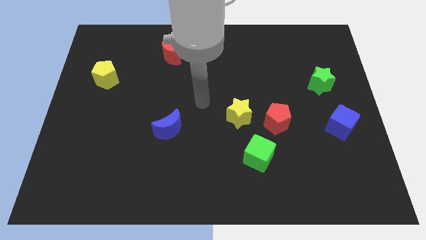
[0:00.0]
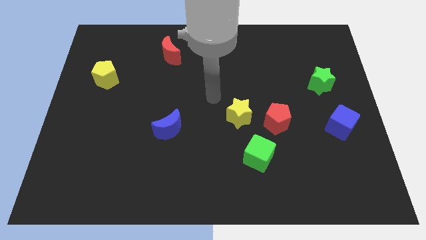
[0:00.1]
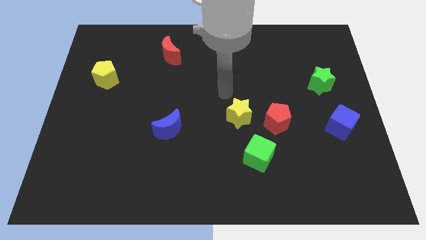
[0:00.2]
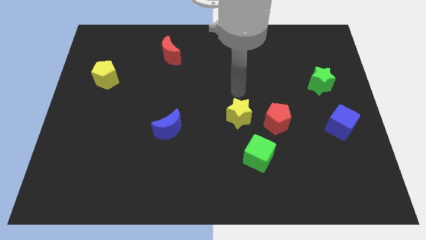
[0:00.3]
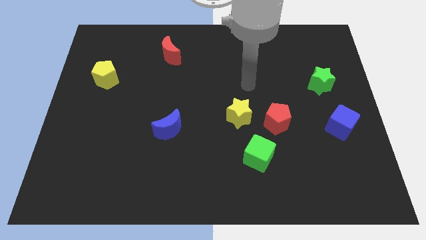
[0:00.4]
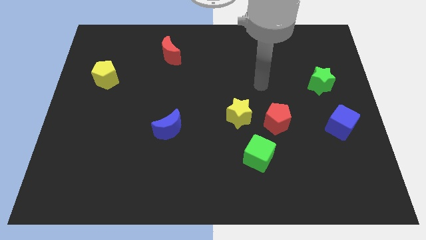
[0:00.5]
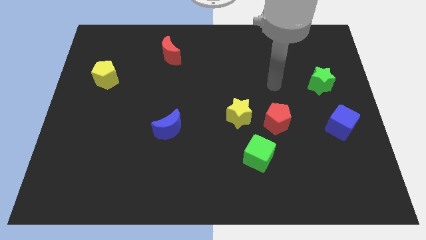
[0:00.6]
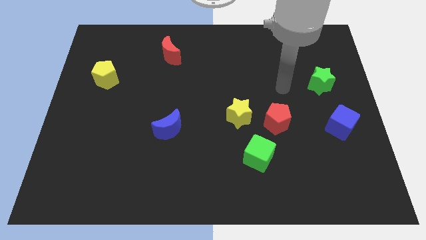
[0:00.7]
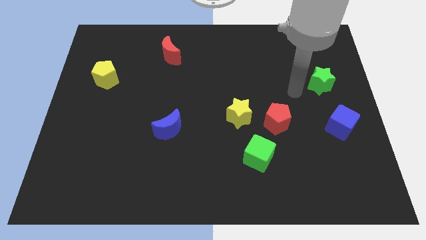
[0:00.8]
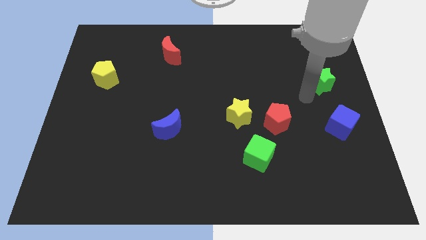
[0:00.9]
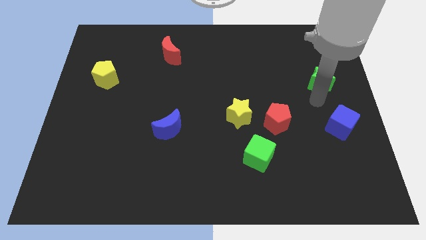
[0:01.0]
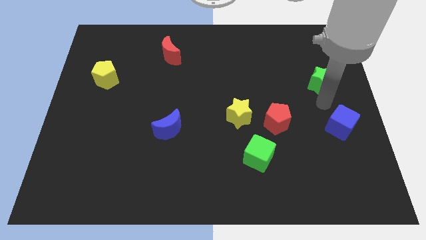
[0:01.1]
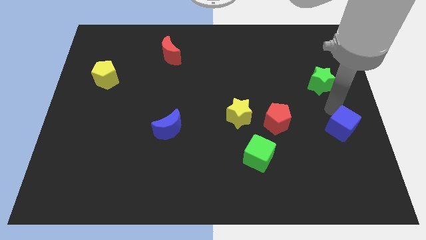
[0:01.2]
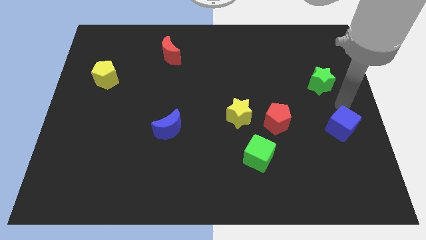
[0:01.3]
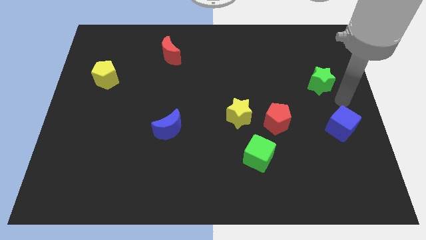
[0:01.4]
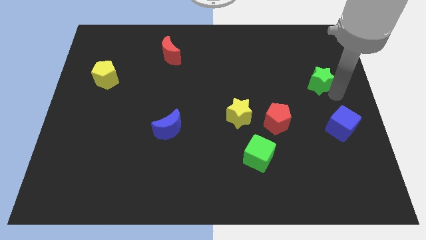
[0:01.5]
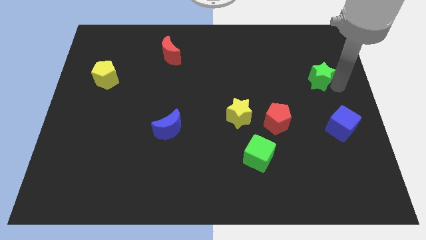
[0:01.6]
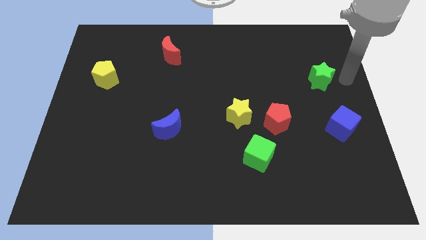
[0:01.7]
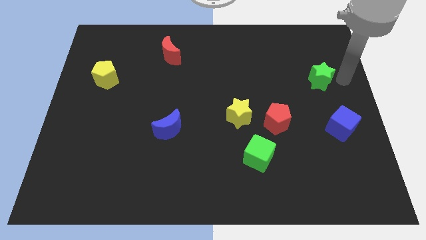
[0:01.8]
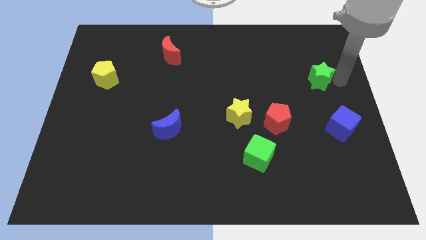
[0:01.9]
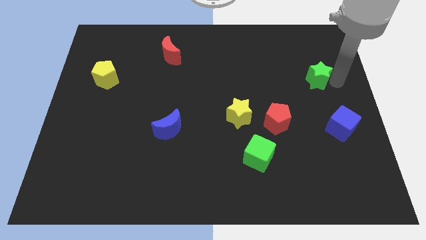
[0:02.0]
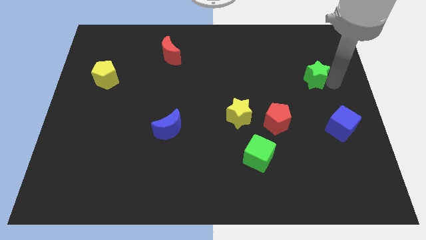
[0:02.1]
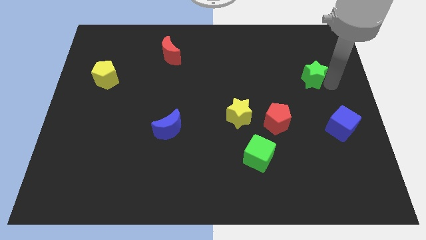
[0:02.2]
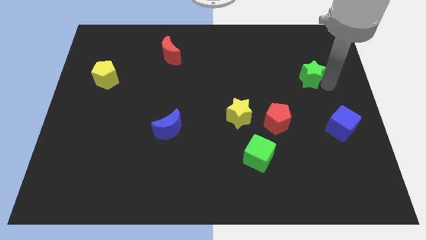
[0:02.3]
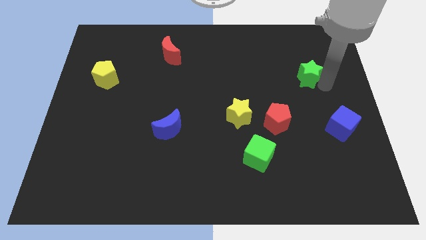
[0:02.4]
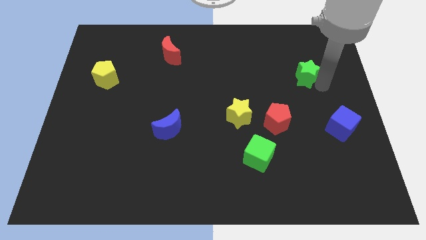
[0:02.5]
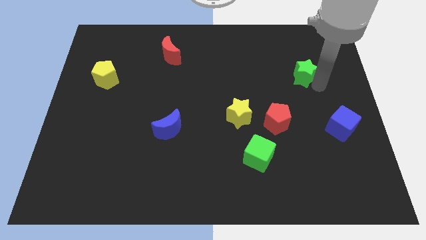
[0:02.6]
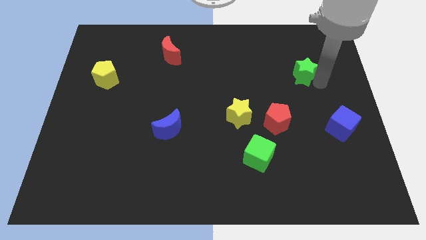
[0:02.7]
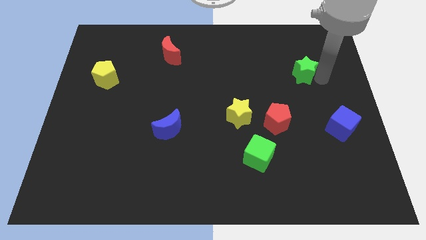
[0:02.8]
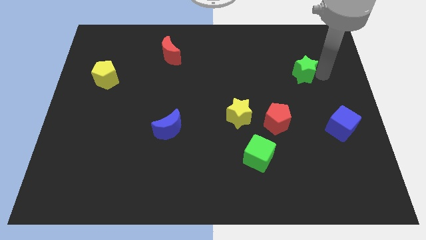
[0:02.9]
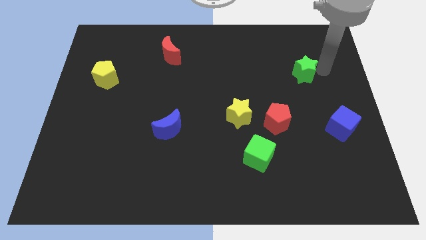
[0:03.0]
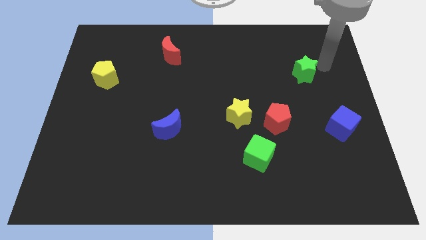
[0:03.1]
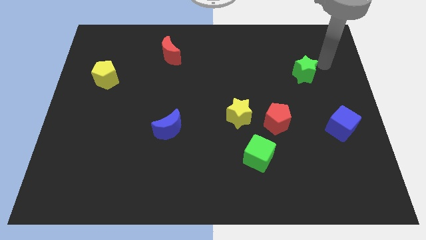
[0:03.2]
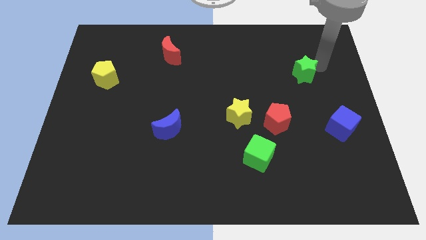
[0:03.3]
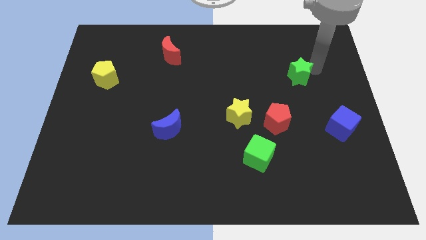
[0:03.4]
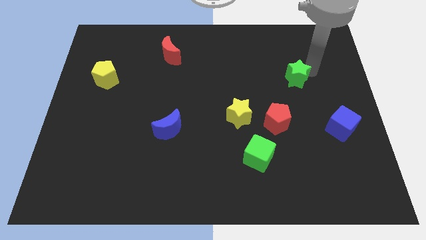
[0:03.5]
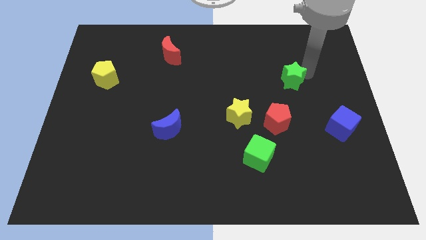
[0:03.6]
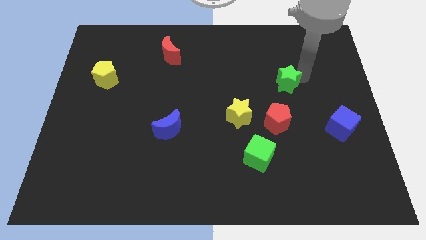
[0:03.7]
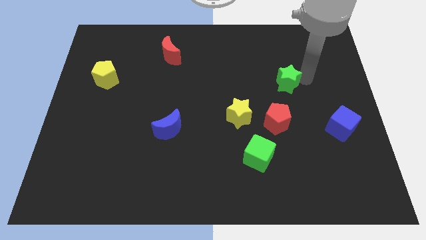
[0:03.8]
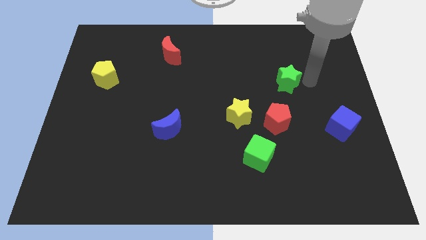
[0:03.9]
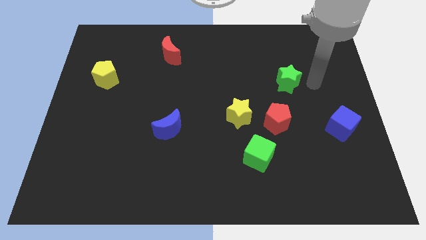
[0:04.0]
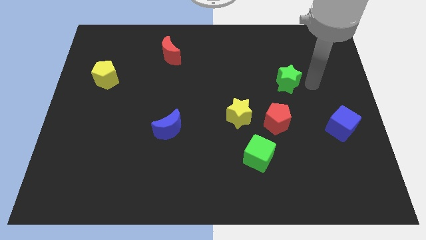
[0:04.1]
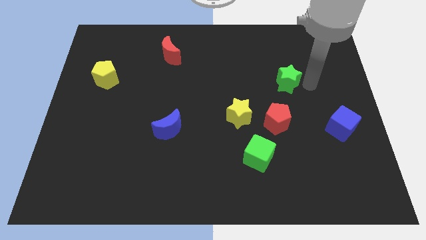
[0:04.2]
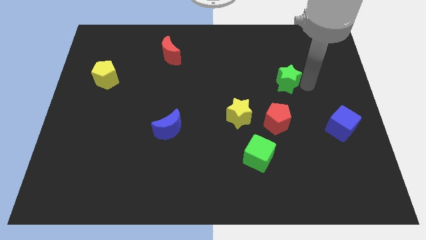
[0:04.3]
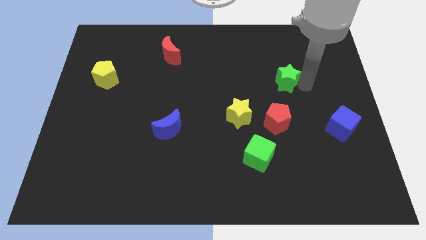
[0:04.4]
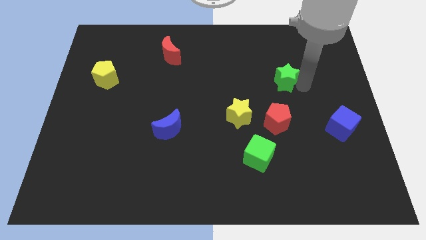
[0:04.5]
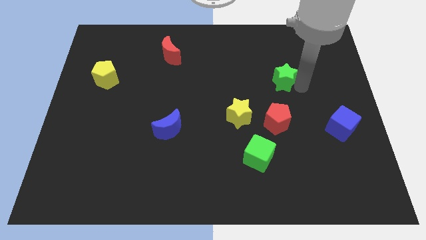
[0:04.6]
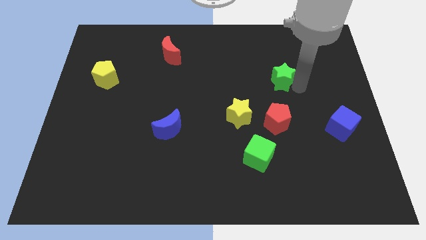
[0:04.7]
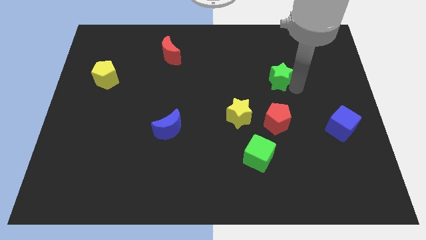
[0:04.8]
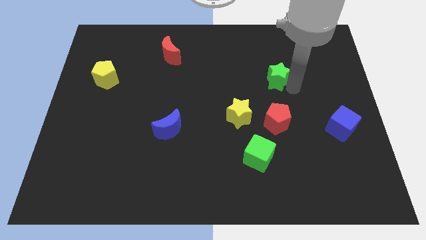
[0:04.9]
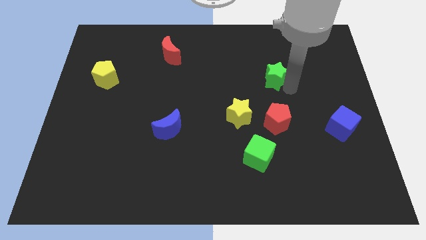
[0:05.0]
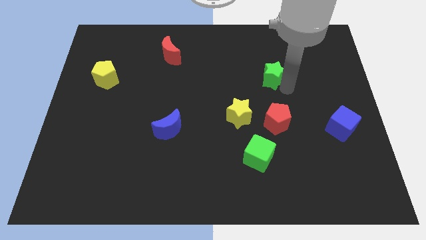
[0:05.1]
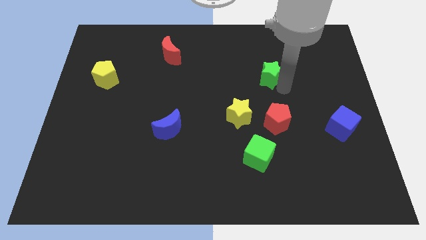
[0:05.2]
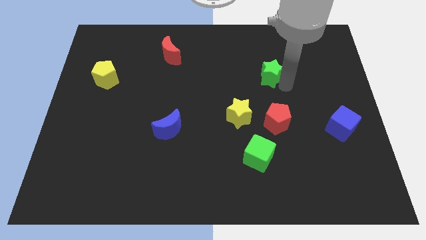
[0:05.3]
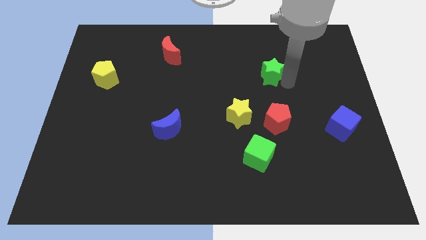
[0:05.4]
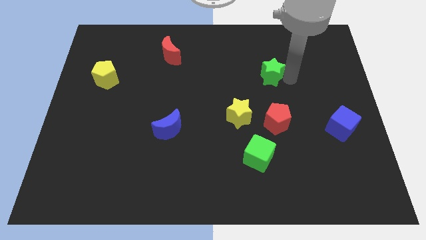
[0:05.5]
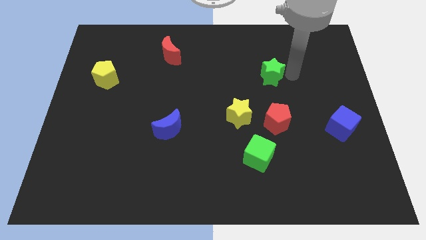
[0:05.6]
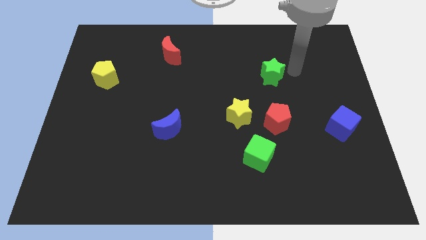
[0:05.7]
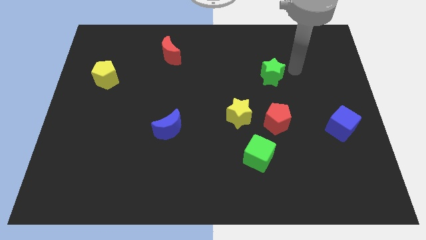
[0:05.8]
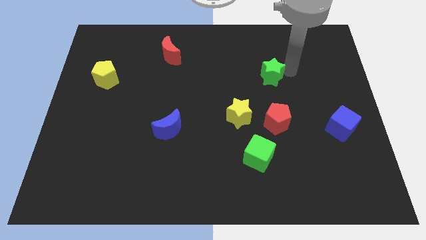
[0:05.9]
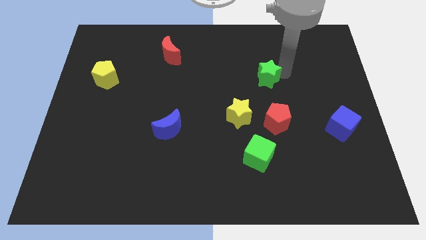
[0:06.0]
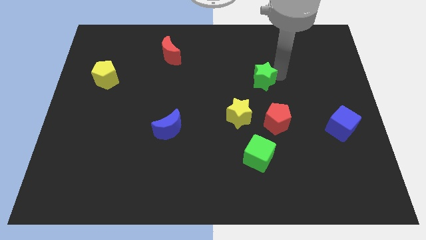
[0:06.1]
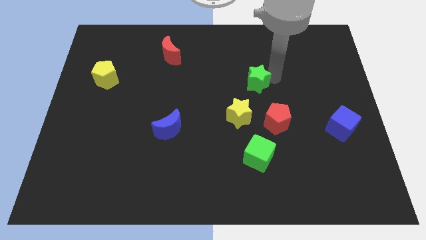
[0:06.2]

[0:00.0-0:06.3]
push the green star to the top side of the yellow star

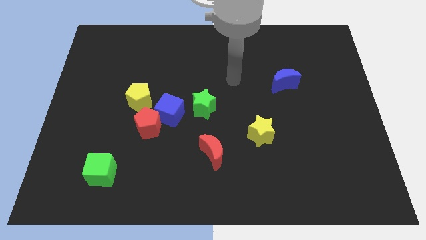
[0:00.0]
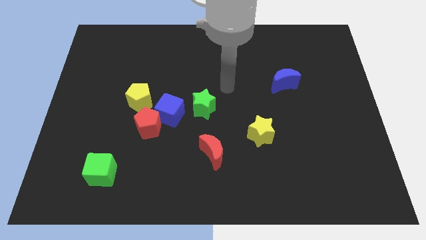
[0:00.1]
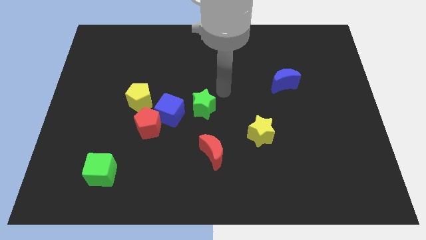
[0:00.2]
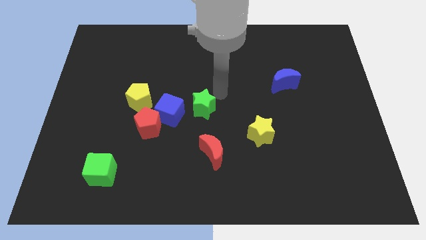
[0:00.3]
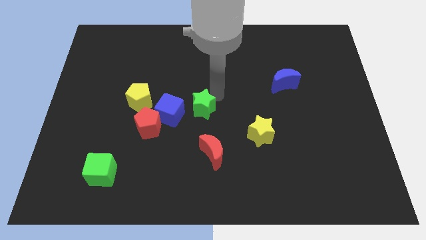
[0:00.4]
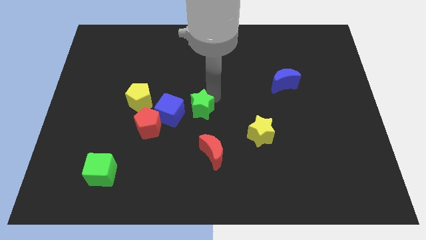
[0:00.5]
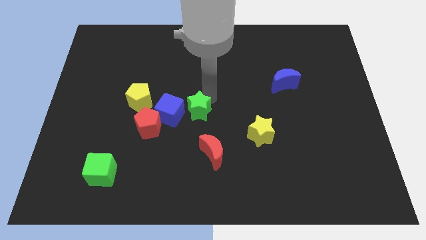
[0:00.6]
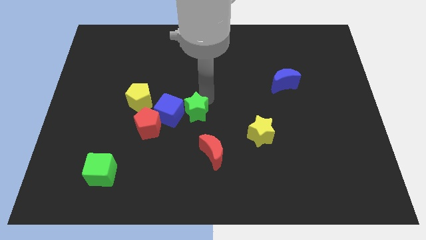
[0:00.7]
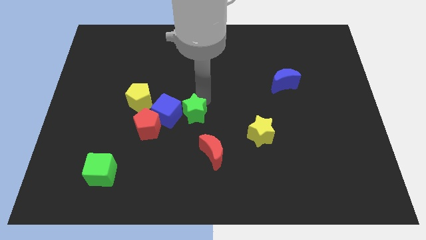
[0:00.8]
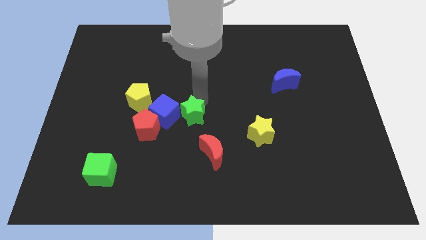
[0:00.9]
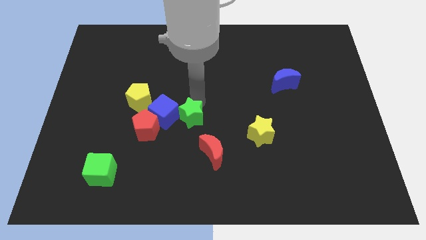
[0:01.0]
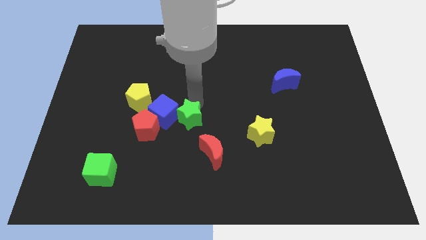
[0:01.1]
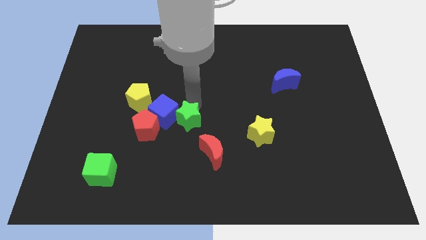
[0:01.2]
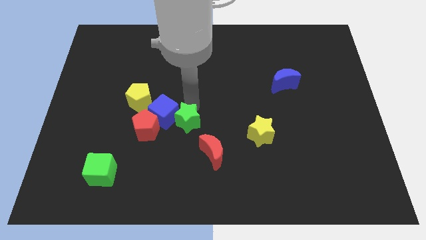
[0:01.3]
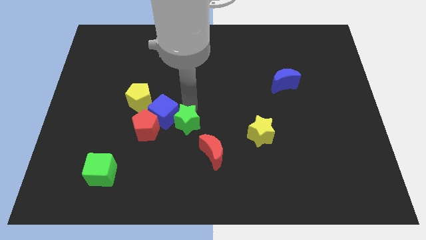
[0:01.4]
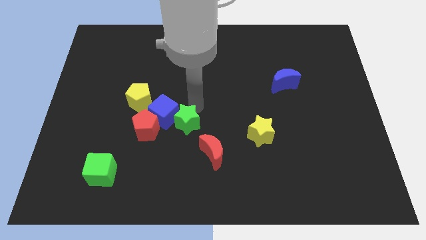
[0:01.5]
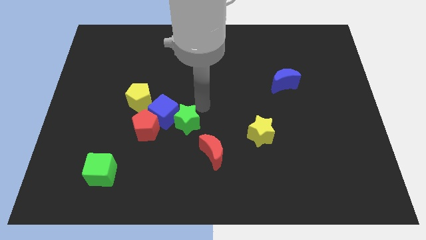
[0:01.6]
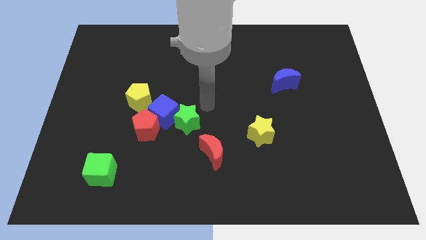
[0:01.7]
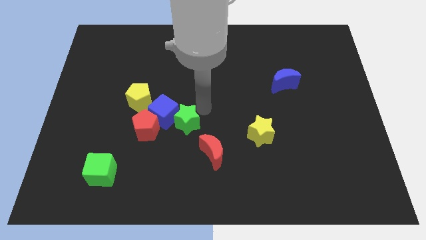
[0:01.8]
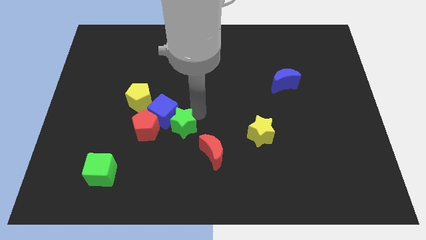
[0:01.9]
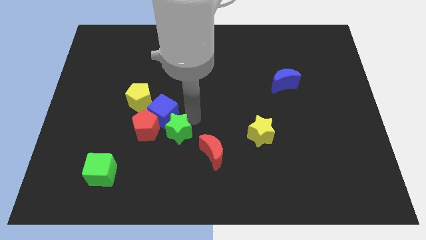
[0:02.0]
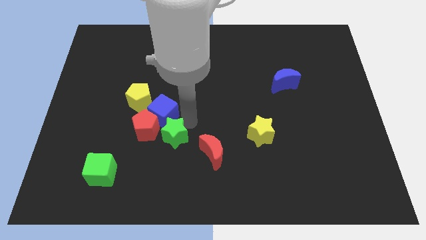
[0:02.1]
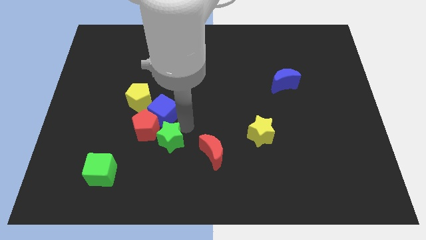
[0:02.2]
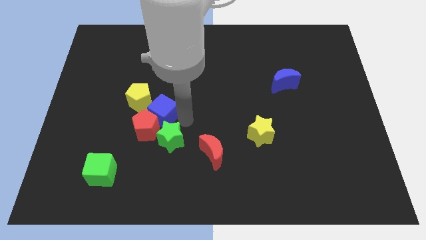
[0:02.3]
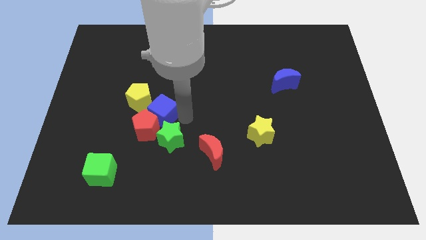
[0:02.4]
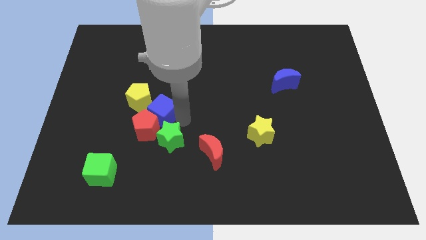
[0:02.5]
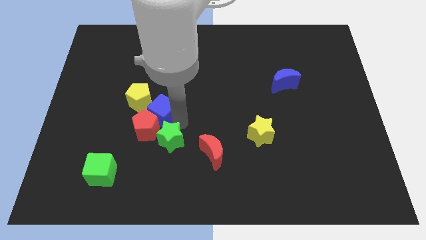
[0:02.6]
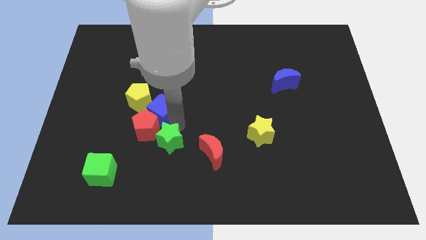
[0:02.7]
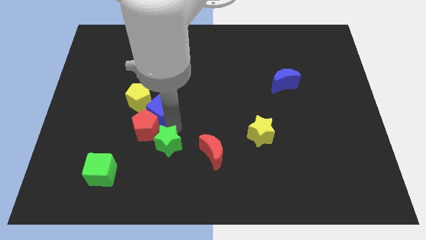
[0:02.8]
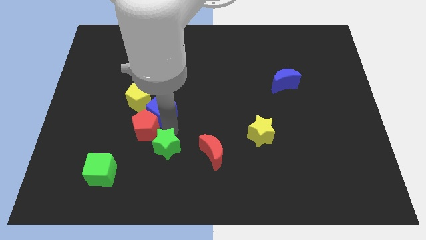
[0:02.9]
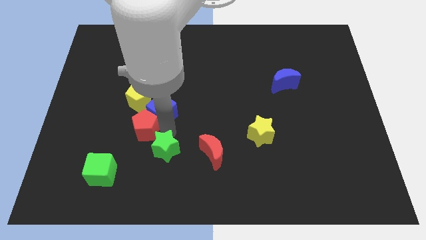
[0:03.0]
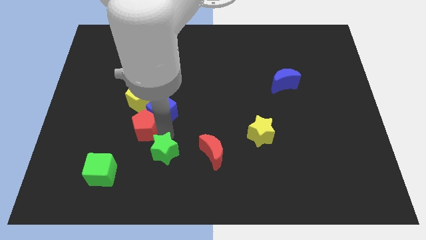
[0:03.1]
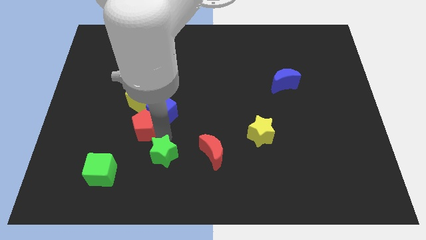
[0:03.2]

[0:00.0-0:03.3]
push the green star to the right side of the green cube
